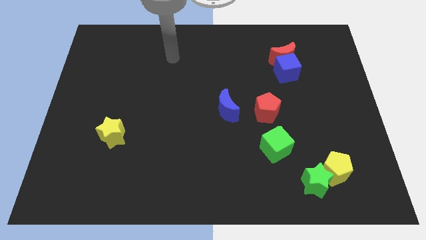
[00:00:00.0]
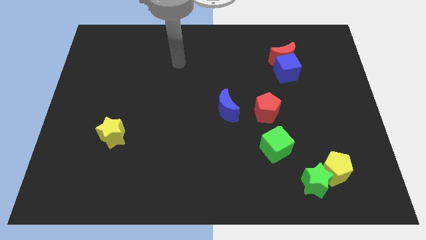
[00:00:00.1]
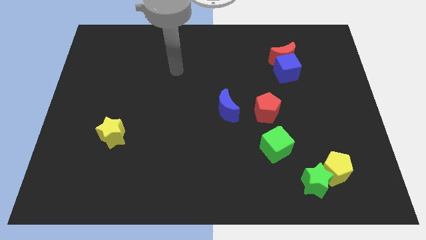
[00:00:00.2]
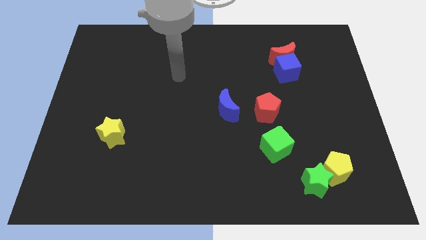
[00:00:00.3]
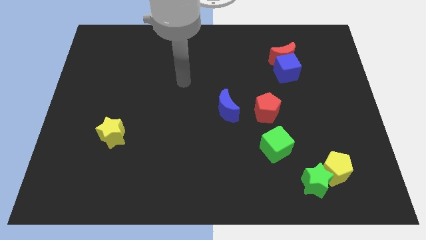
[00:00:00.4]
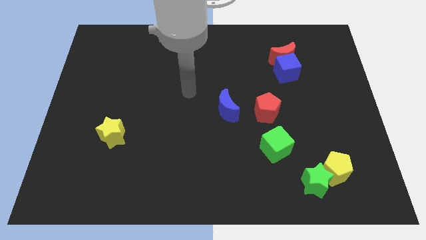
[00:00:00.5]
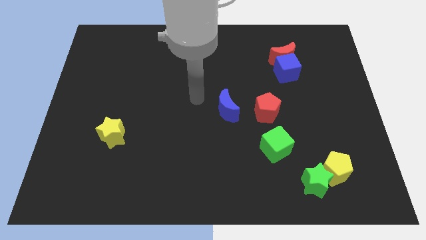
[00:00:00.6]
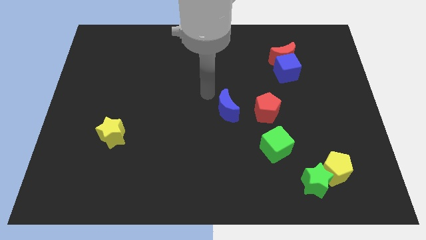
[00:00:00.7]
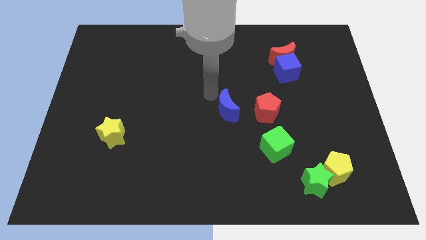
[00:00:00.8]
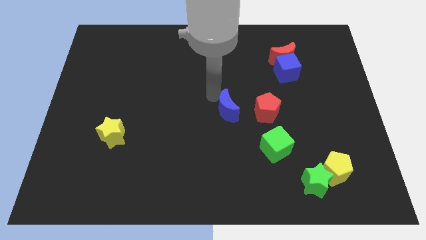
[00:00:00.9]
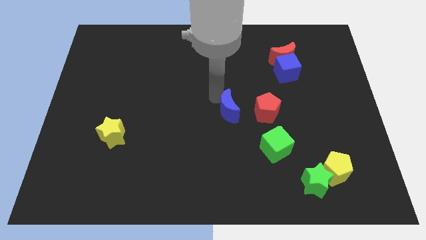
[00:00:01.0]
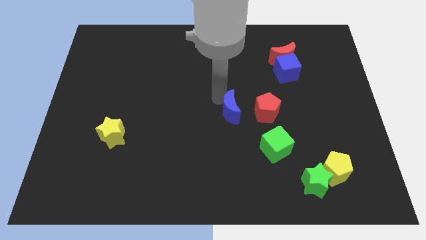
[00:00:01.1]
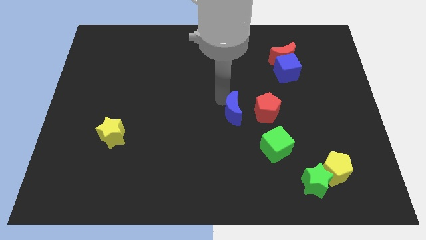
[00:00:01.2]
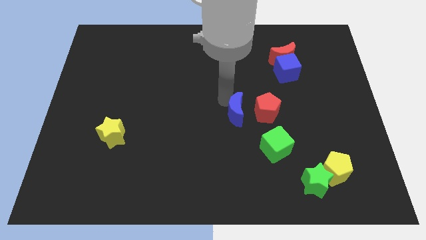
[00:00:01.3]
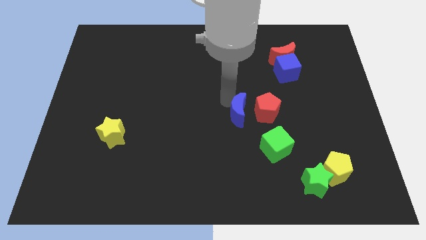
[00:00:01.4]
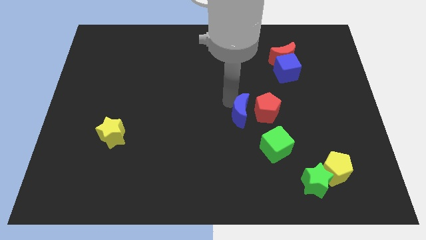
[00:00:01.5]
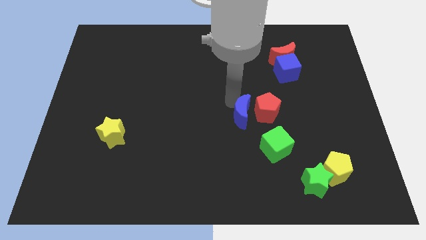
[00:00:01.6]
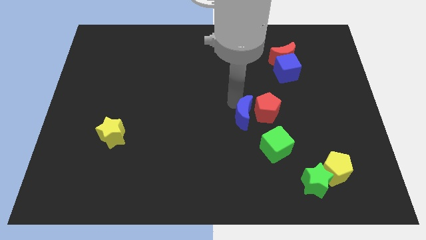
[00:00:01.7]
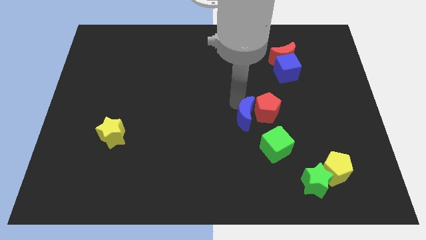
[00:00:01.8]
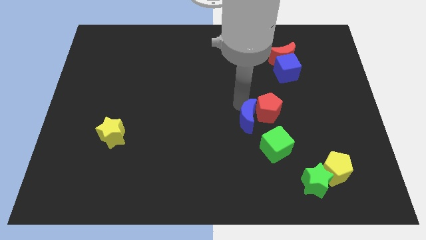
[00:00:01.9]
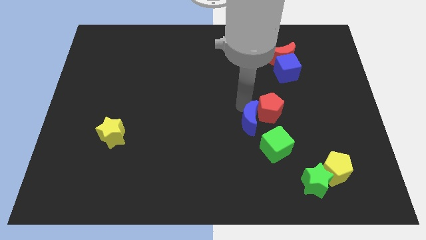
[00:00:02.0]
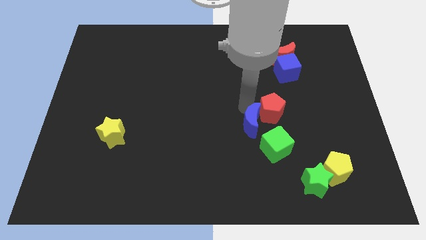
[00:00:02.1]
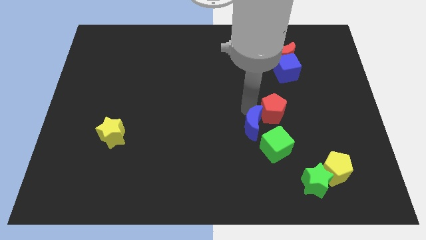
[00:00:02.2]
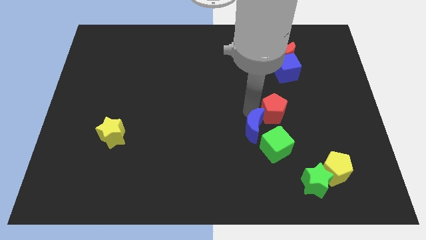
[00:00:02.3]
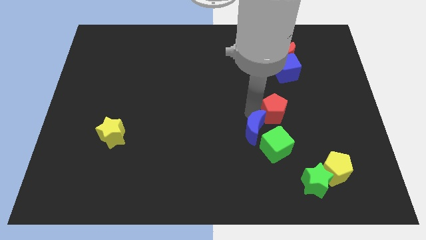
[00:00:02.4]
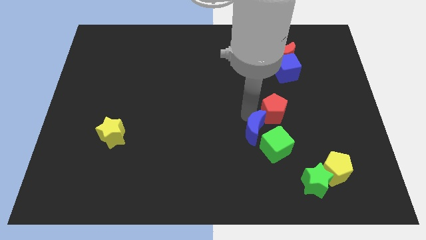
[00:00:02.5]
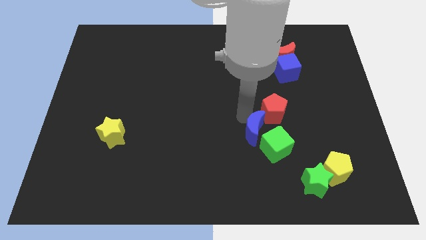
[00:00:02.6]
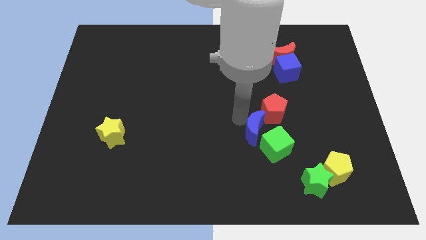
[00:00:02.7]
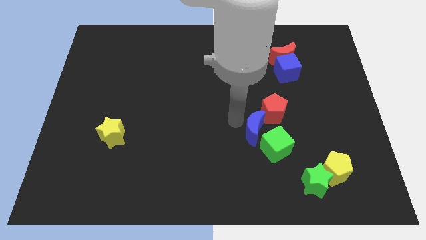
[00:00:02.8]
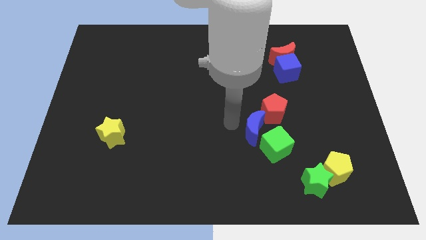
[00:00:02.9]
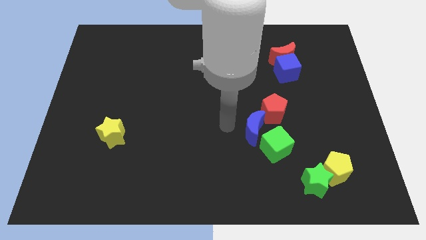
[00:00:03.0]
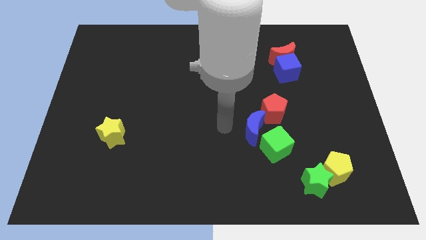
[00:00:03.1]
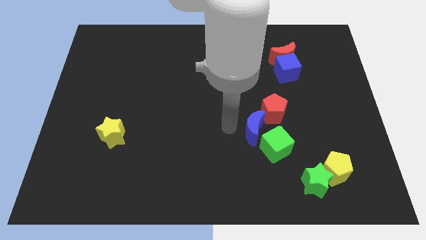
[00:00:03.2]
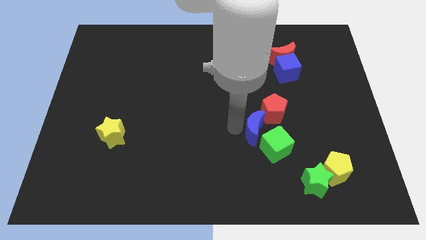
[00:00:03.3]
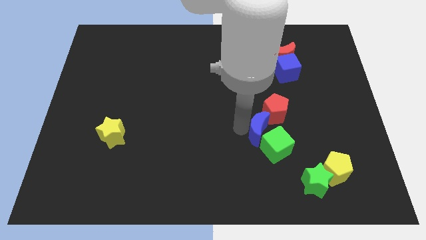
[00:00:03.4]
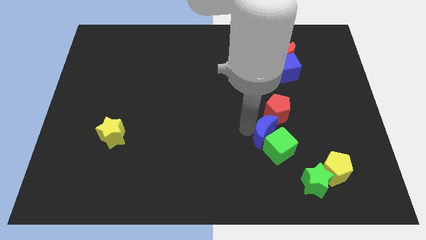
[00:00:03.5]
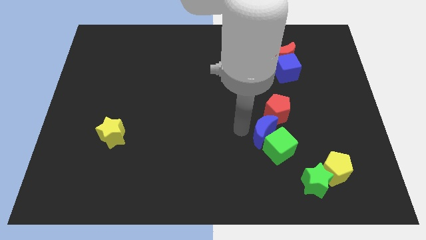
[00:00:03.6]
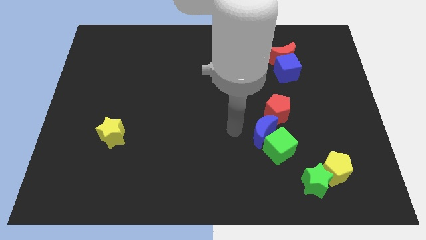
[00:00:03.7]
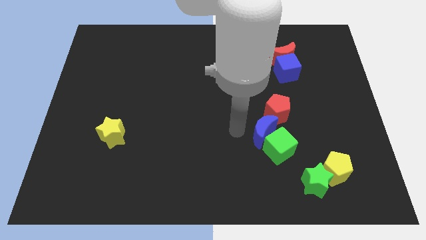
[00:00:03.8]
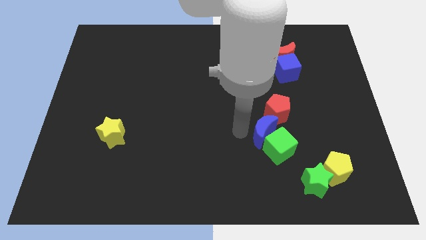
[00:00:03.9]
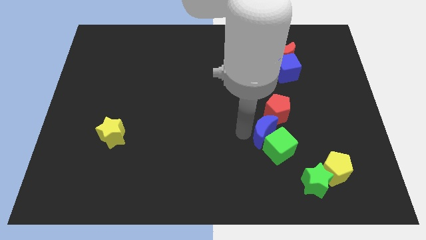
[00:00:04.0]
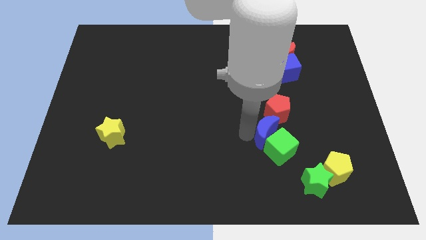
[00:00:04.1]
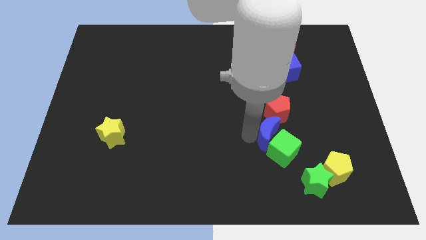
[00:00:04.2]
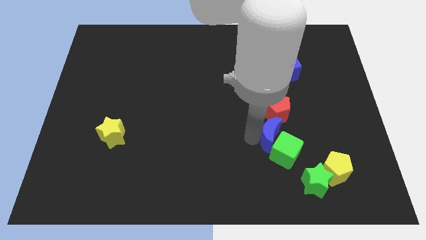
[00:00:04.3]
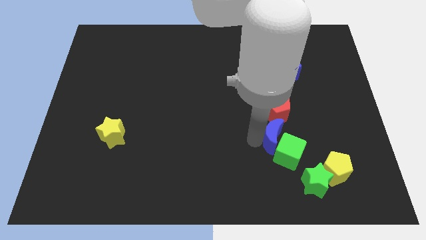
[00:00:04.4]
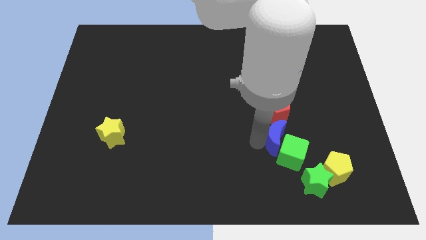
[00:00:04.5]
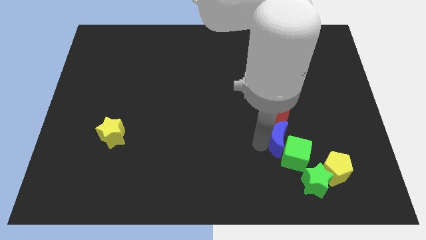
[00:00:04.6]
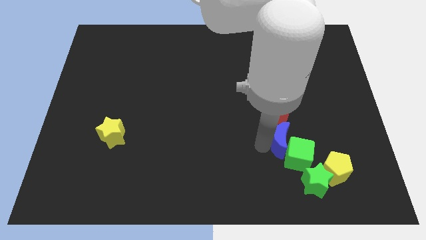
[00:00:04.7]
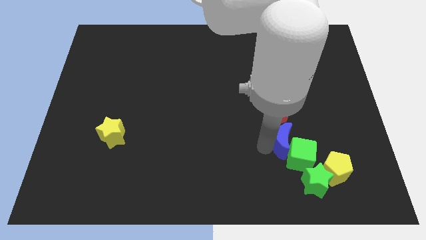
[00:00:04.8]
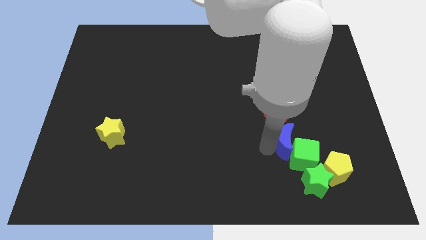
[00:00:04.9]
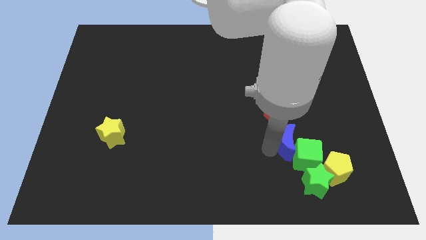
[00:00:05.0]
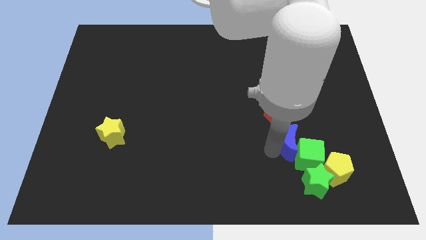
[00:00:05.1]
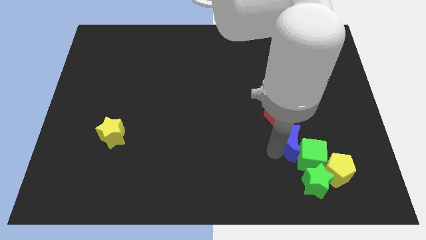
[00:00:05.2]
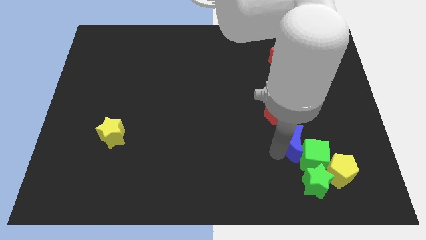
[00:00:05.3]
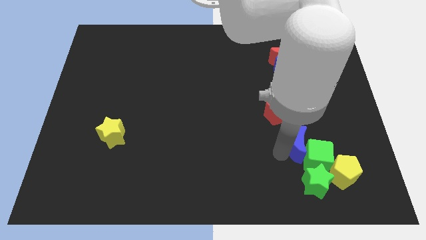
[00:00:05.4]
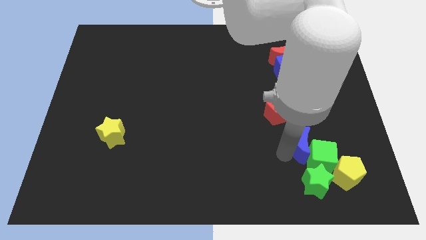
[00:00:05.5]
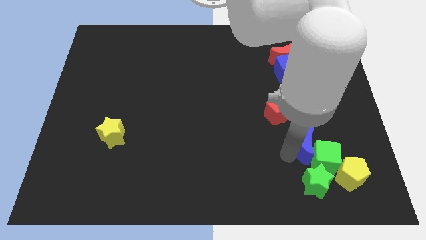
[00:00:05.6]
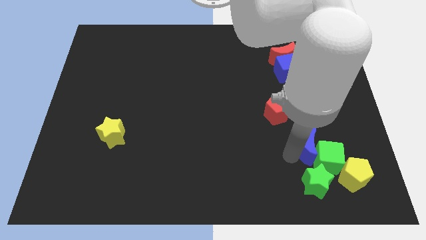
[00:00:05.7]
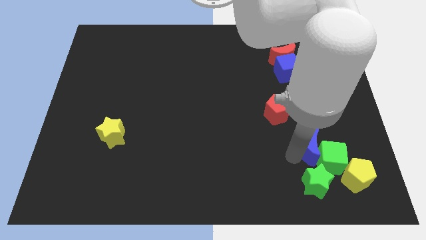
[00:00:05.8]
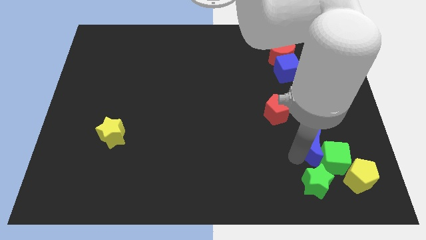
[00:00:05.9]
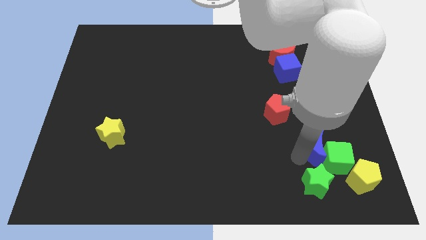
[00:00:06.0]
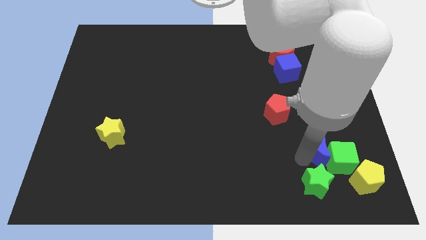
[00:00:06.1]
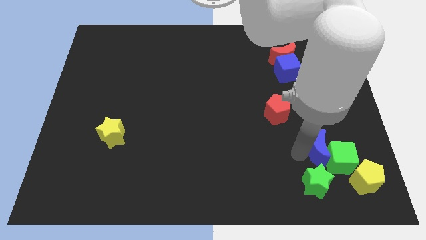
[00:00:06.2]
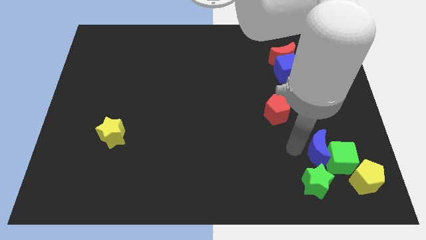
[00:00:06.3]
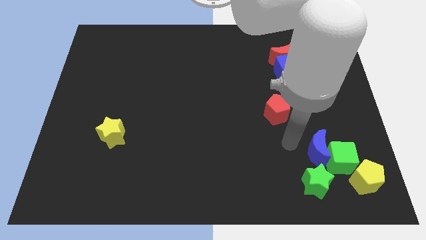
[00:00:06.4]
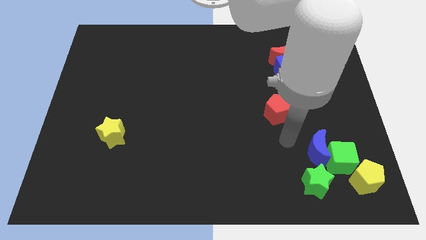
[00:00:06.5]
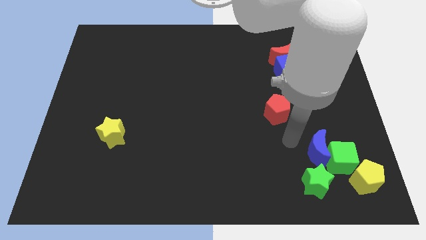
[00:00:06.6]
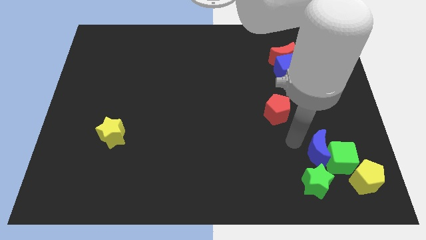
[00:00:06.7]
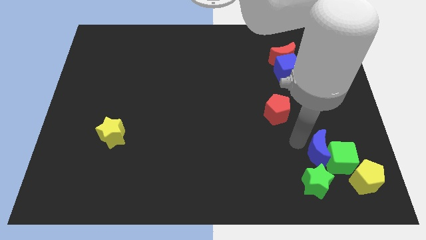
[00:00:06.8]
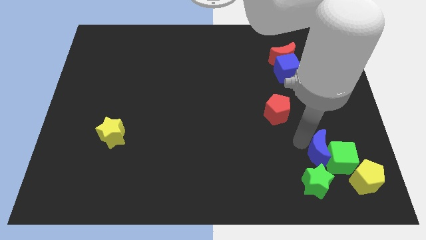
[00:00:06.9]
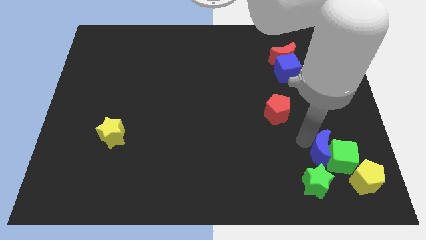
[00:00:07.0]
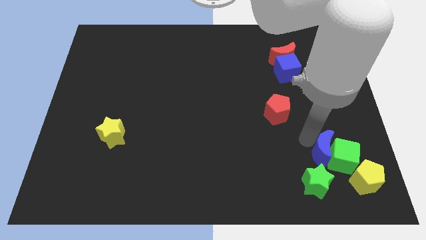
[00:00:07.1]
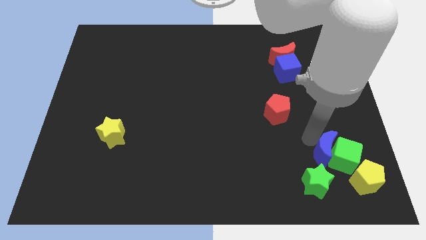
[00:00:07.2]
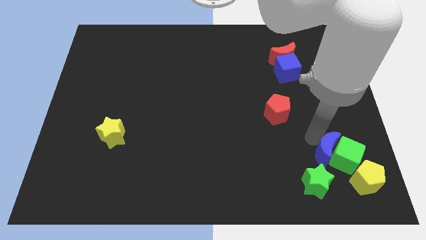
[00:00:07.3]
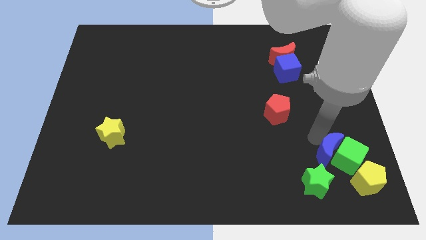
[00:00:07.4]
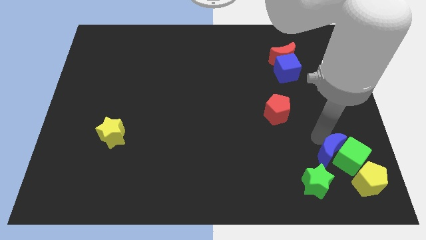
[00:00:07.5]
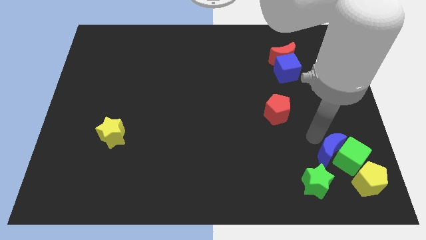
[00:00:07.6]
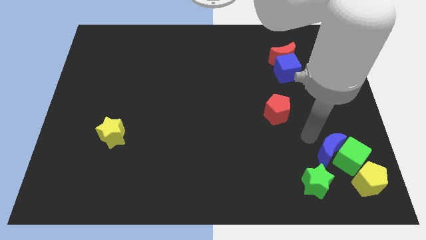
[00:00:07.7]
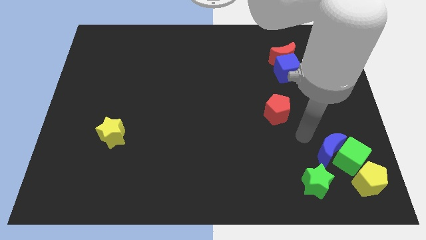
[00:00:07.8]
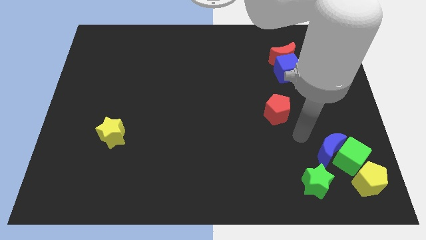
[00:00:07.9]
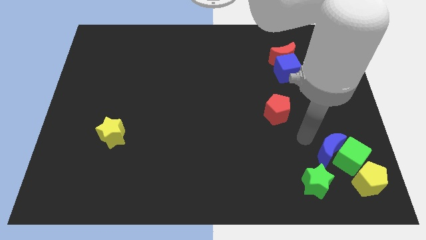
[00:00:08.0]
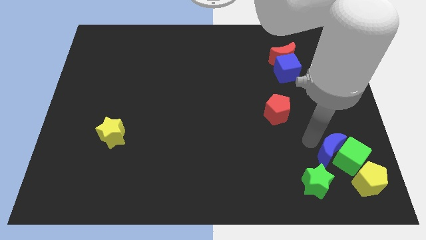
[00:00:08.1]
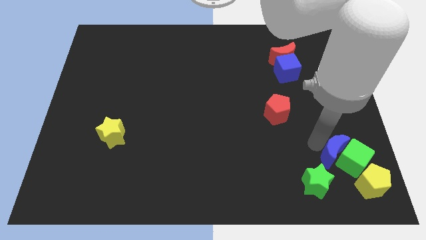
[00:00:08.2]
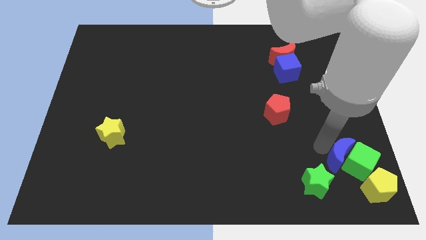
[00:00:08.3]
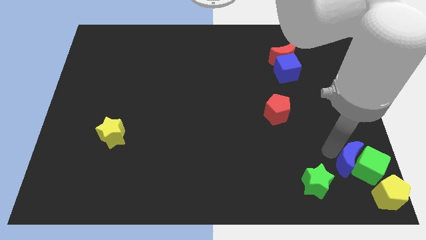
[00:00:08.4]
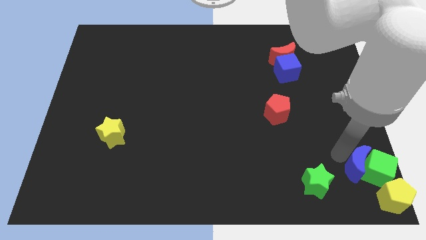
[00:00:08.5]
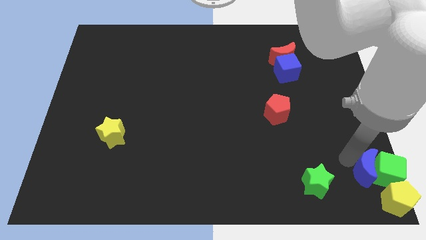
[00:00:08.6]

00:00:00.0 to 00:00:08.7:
put the blue moon to the bottom right of the board
